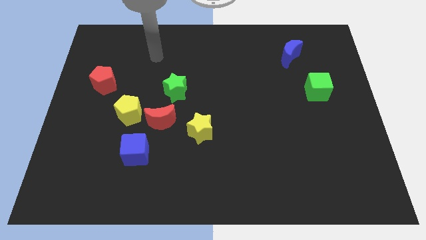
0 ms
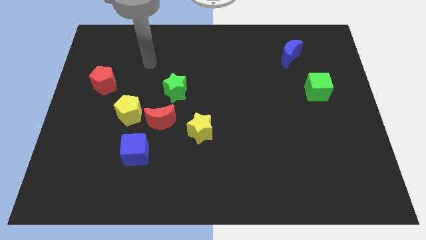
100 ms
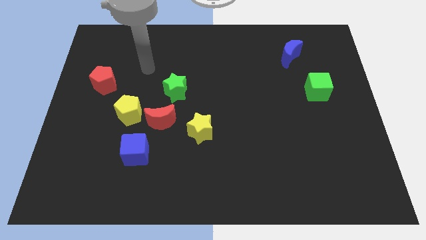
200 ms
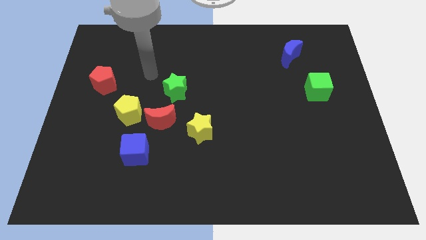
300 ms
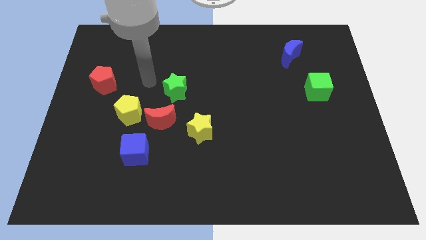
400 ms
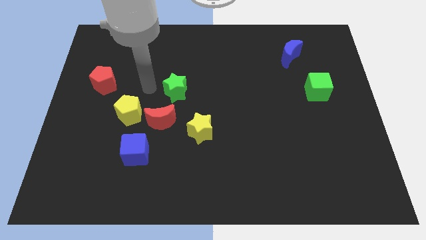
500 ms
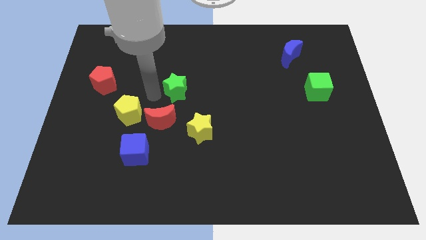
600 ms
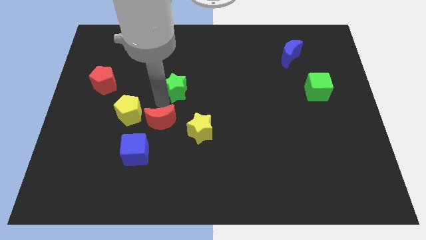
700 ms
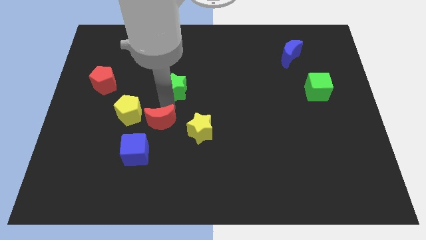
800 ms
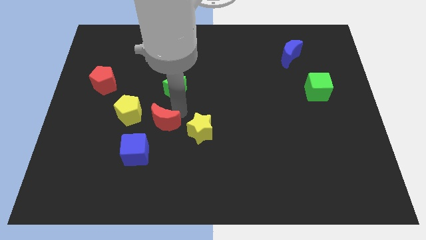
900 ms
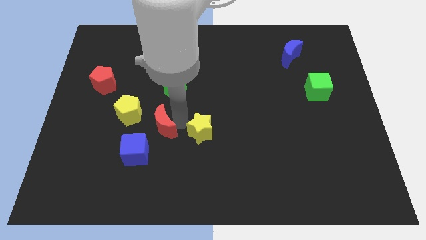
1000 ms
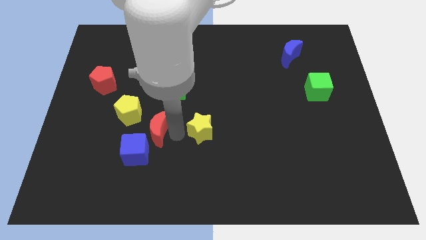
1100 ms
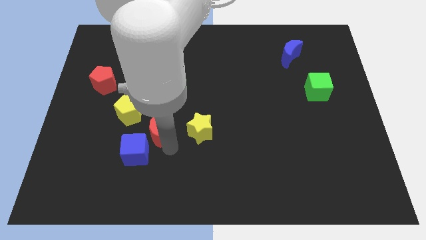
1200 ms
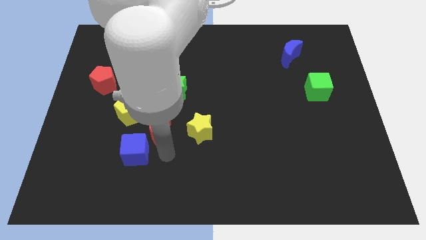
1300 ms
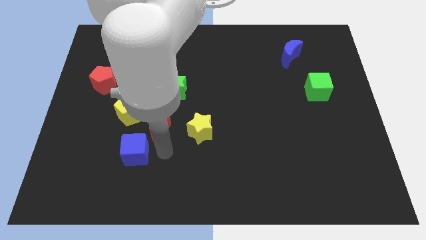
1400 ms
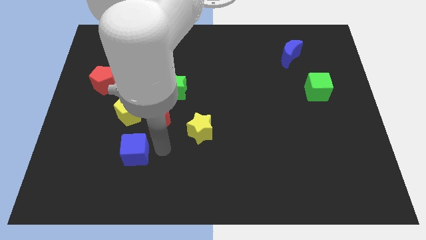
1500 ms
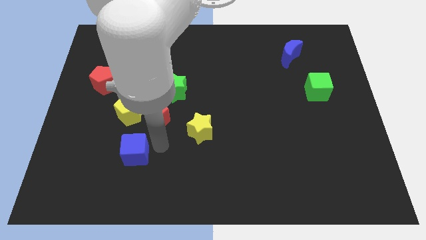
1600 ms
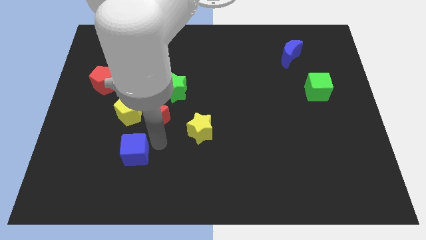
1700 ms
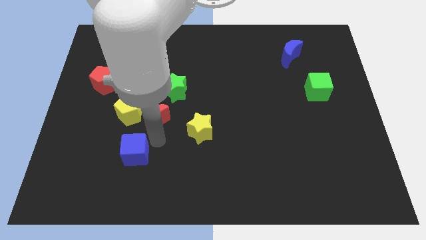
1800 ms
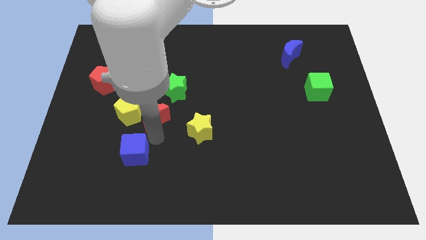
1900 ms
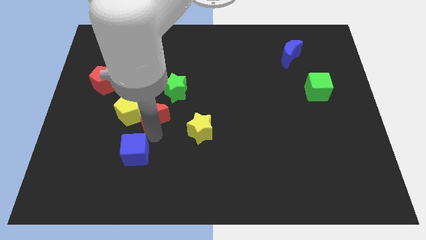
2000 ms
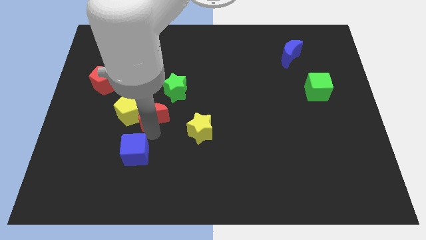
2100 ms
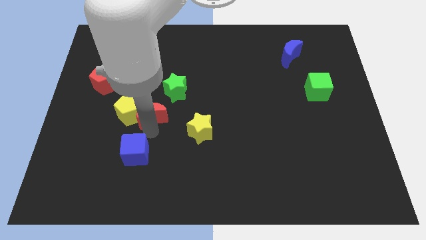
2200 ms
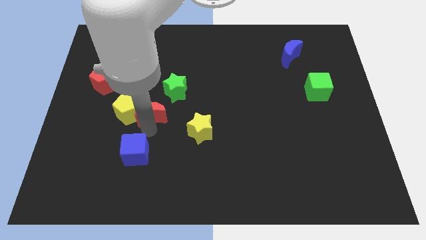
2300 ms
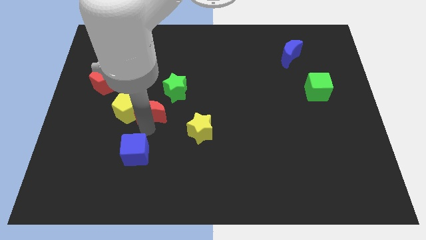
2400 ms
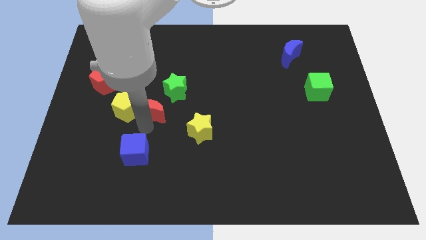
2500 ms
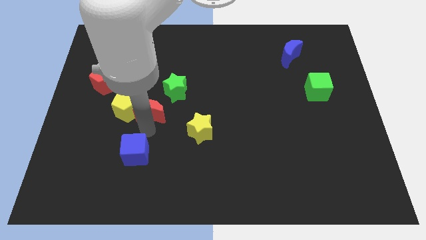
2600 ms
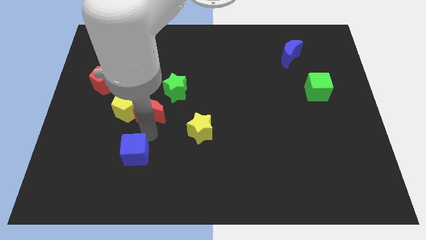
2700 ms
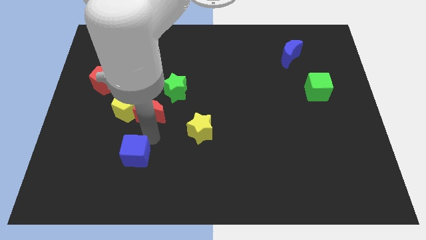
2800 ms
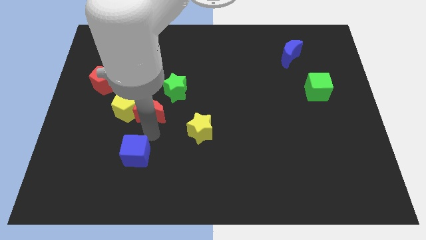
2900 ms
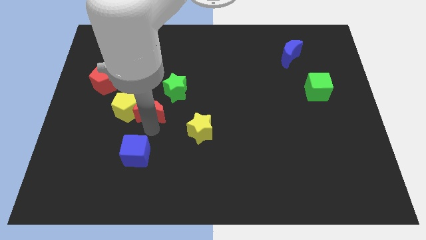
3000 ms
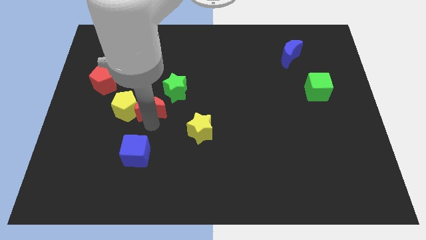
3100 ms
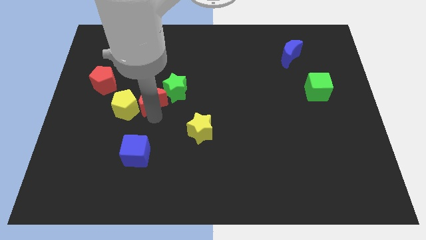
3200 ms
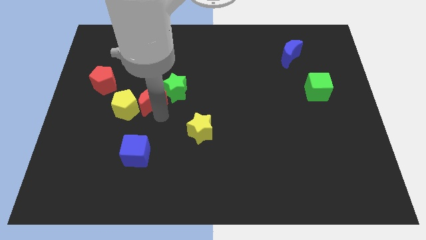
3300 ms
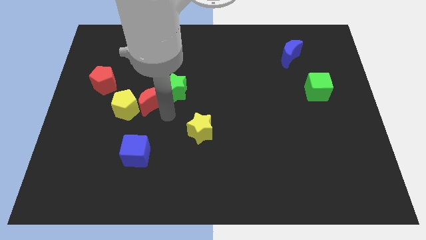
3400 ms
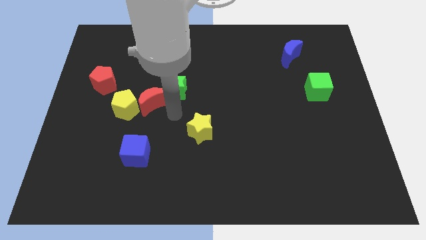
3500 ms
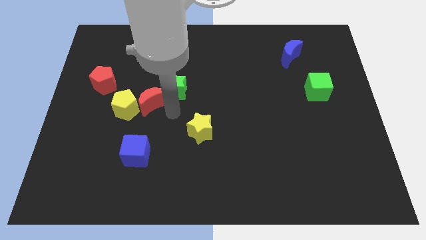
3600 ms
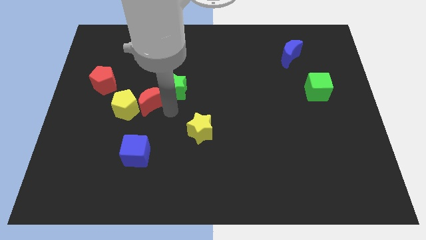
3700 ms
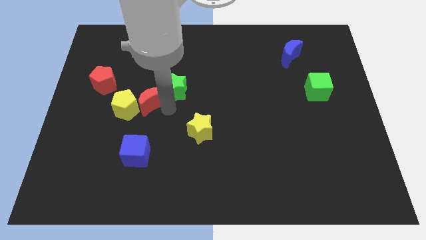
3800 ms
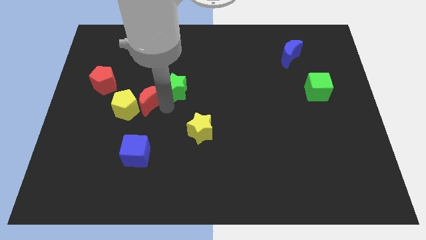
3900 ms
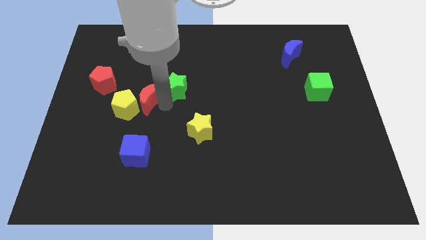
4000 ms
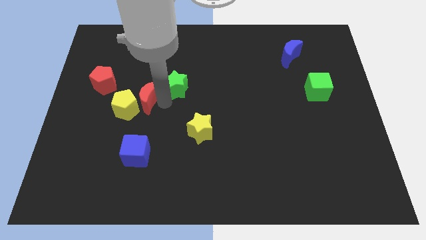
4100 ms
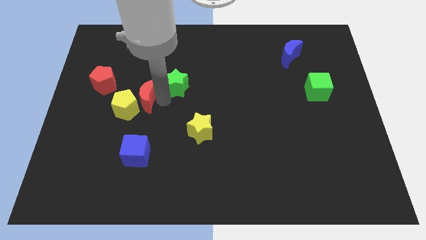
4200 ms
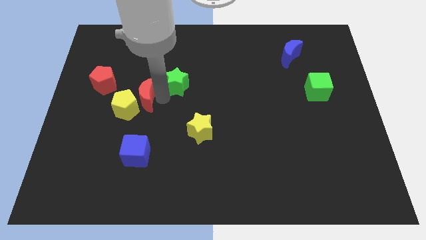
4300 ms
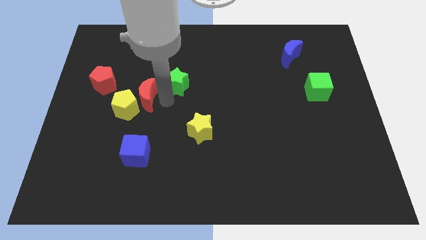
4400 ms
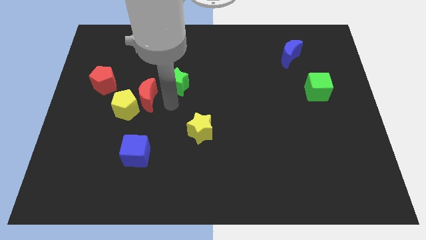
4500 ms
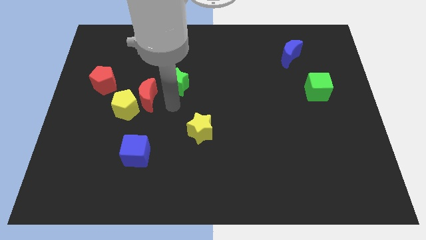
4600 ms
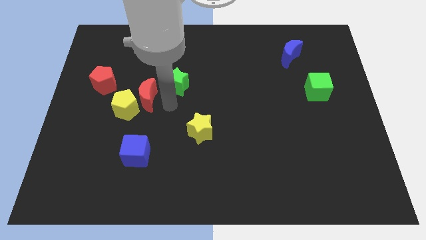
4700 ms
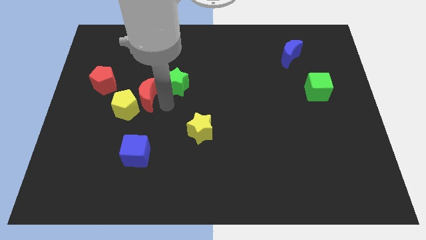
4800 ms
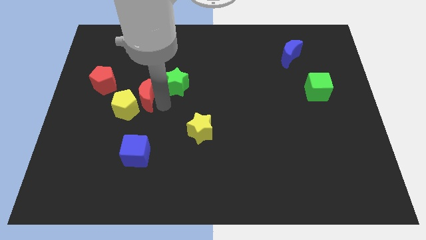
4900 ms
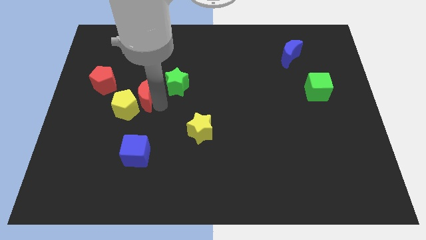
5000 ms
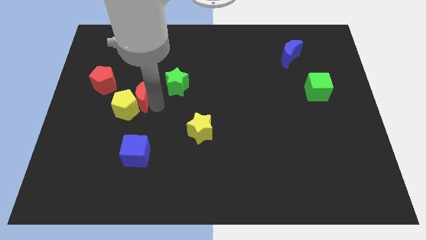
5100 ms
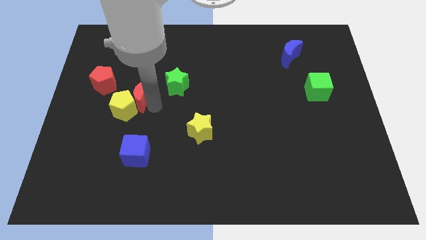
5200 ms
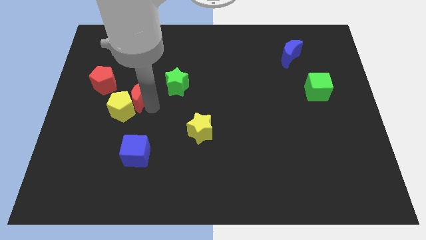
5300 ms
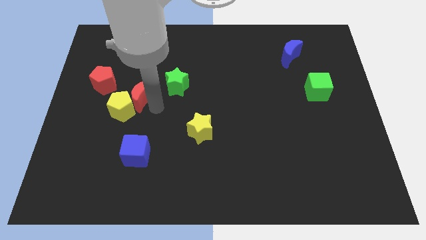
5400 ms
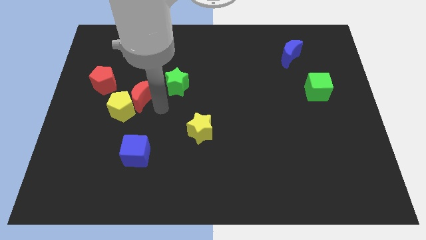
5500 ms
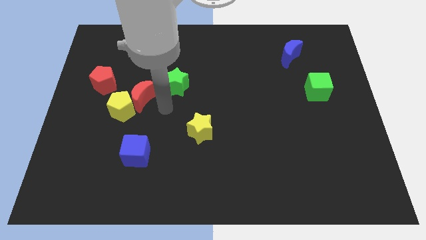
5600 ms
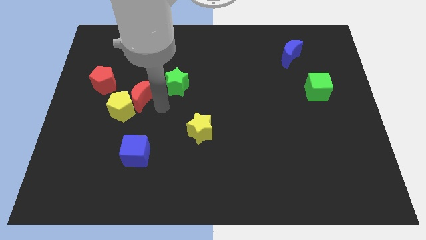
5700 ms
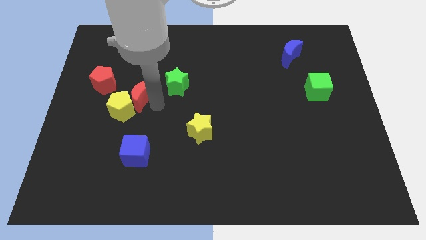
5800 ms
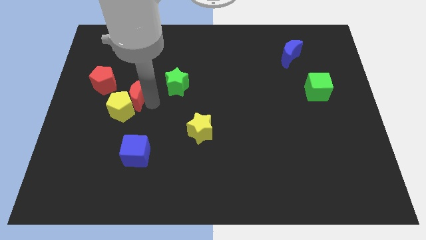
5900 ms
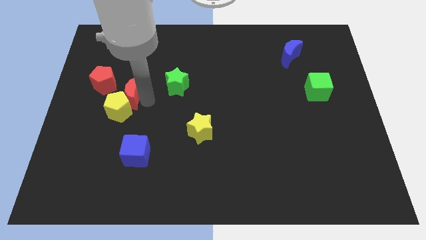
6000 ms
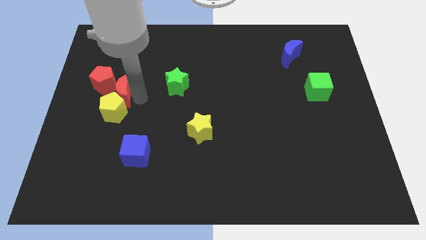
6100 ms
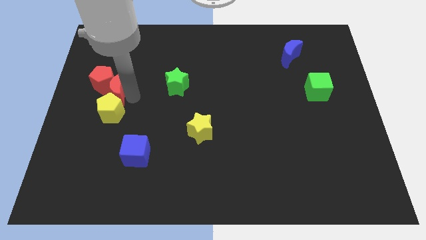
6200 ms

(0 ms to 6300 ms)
push the red moon close to the red pentagon

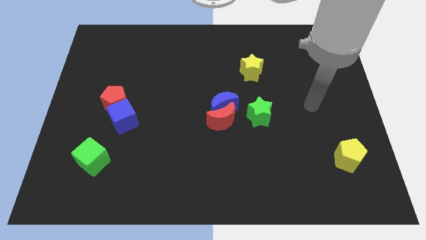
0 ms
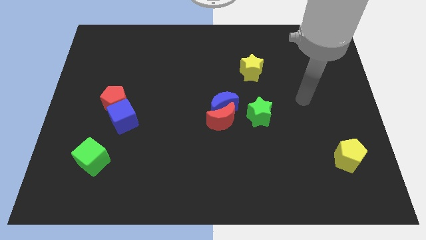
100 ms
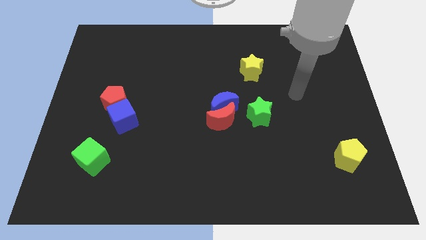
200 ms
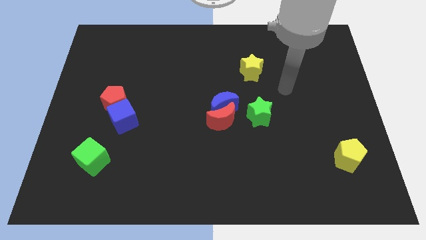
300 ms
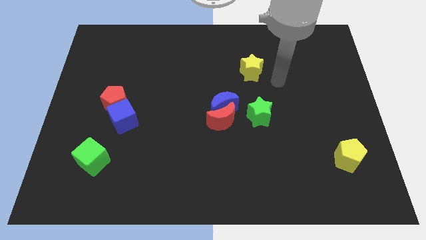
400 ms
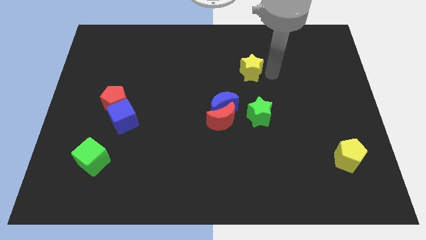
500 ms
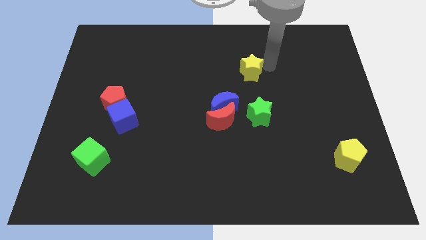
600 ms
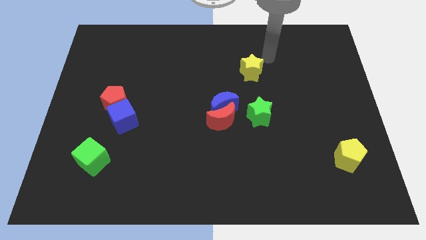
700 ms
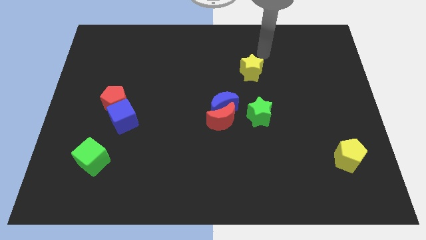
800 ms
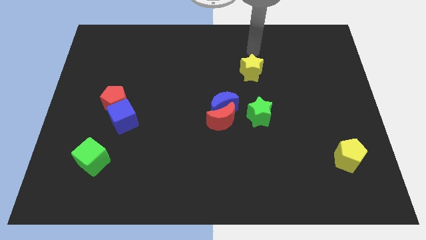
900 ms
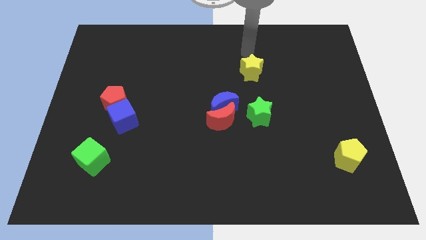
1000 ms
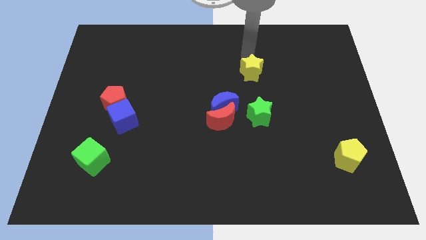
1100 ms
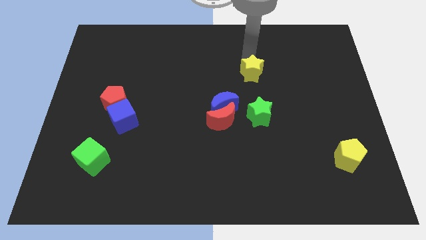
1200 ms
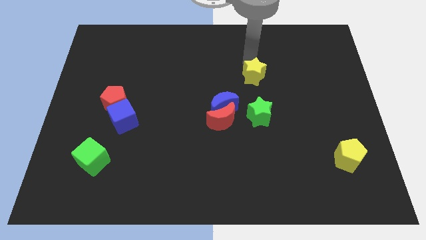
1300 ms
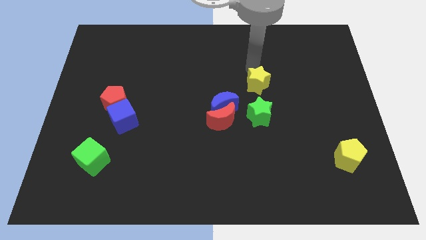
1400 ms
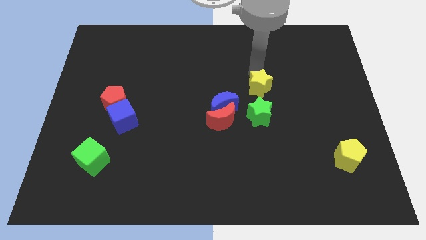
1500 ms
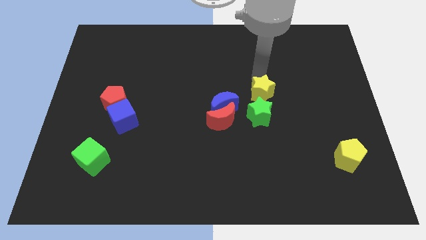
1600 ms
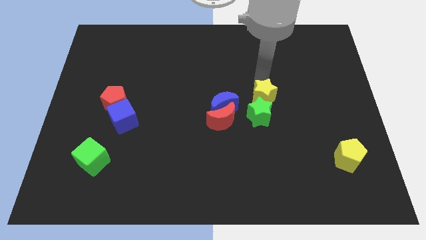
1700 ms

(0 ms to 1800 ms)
put the yellow star close to the green star

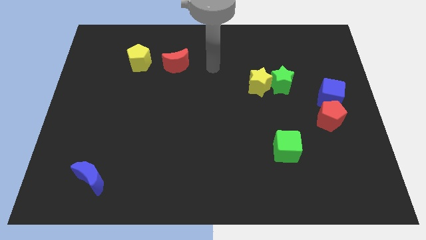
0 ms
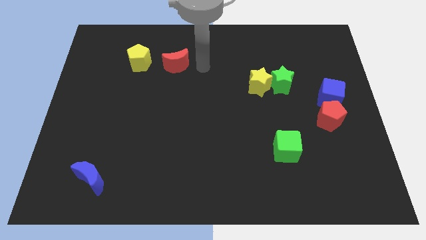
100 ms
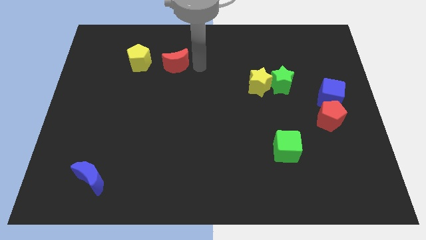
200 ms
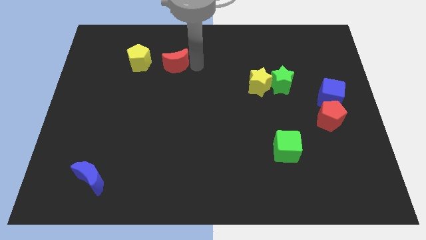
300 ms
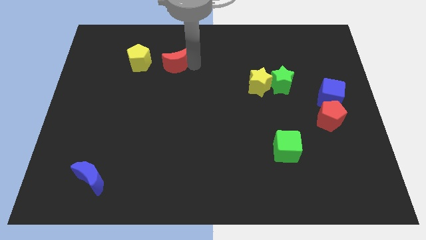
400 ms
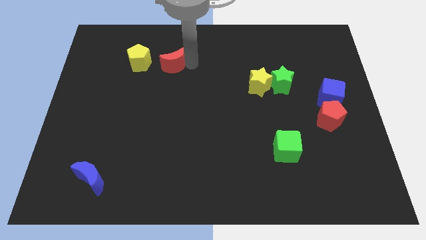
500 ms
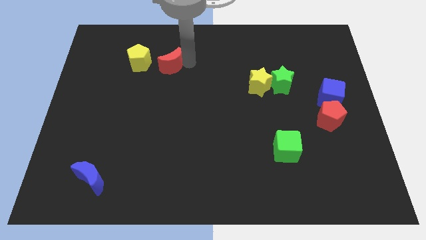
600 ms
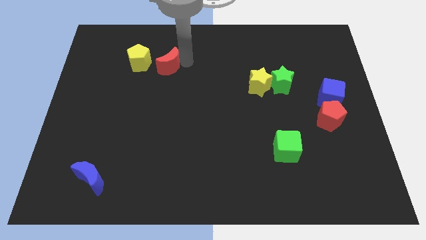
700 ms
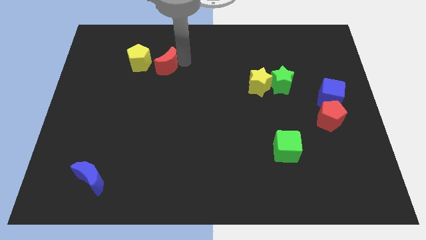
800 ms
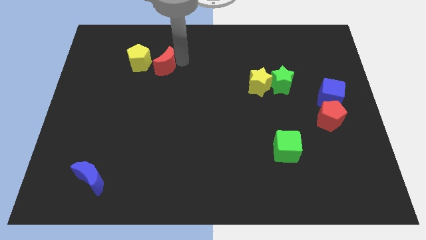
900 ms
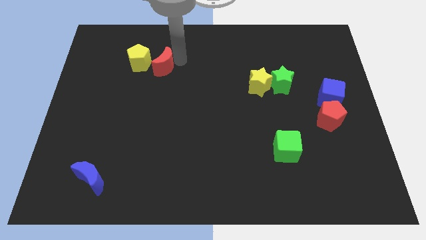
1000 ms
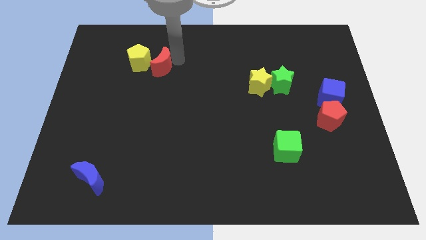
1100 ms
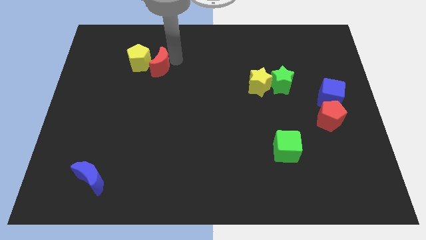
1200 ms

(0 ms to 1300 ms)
push the red moon towards the yellow pentagon
